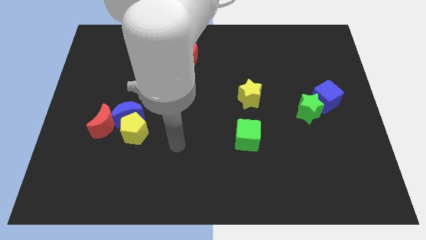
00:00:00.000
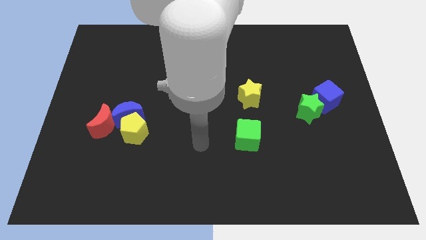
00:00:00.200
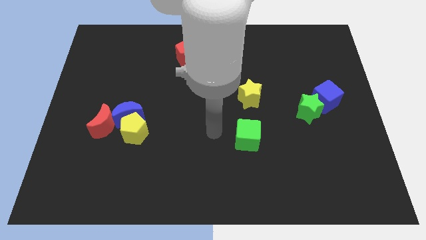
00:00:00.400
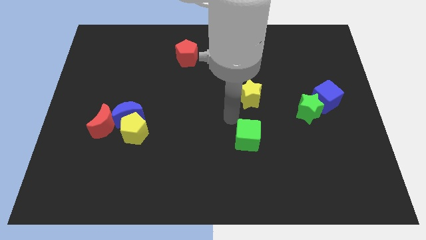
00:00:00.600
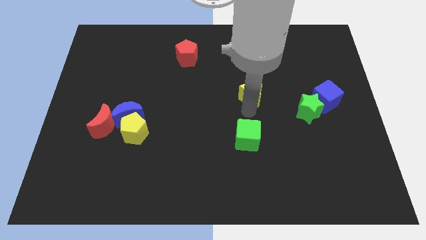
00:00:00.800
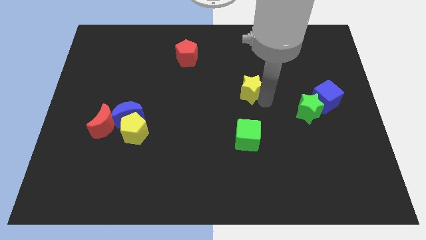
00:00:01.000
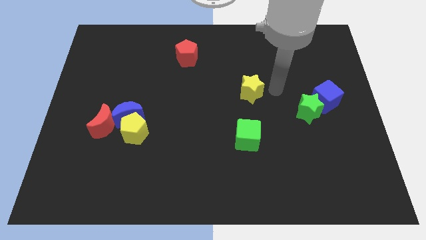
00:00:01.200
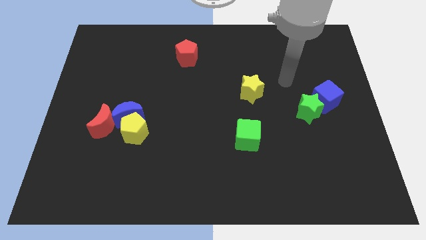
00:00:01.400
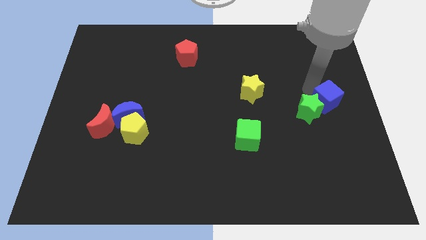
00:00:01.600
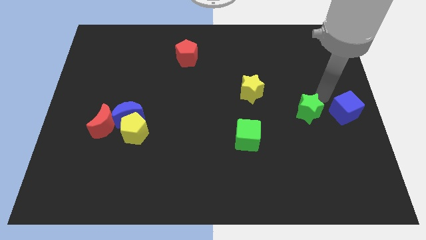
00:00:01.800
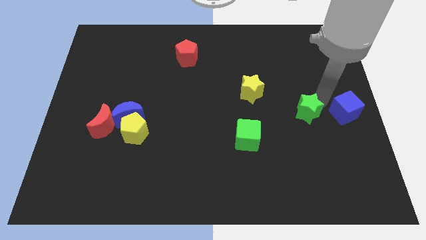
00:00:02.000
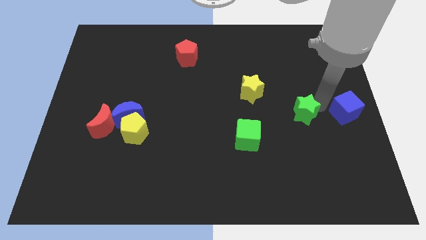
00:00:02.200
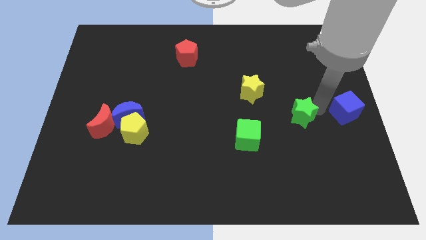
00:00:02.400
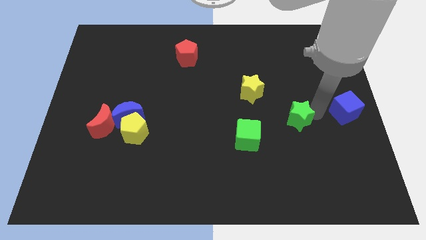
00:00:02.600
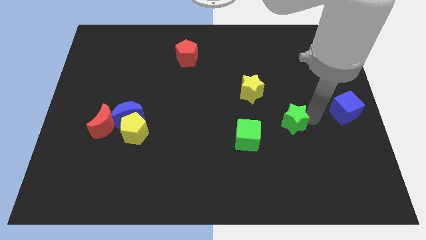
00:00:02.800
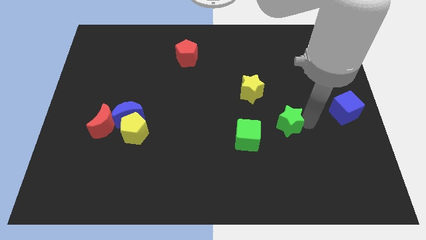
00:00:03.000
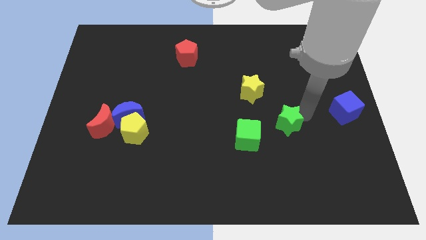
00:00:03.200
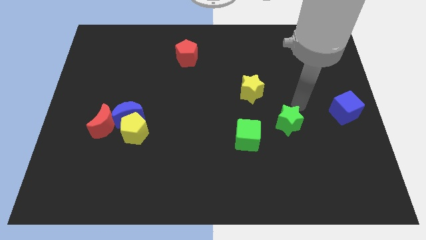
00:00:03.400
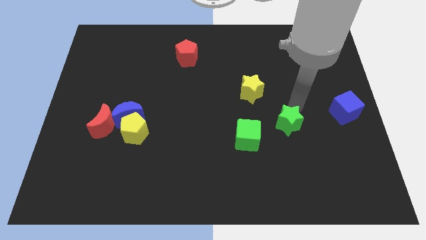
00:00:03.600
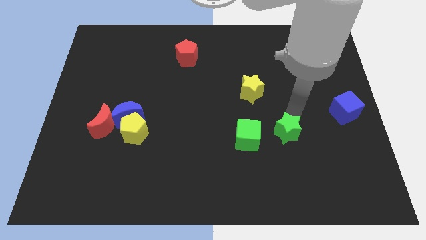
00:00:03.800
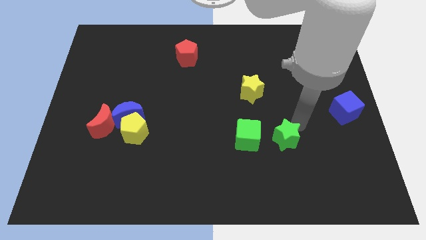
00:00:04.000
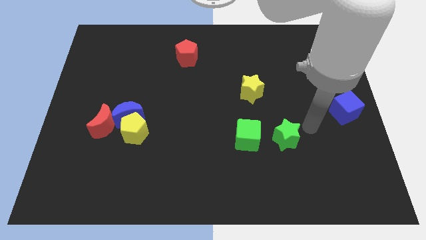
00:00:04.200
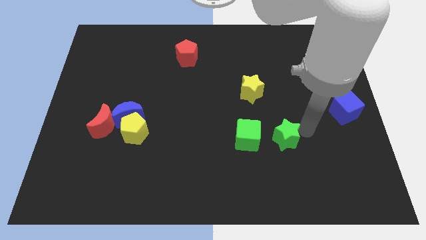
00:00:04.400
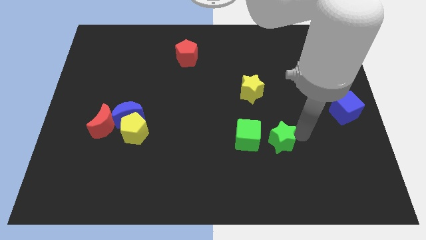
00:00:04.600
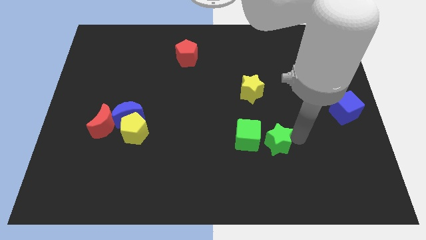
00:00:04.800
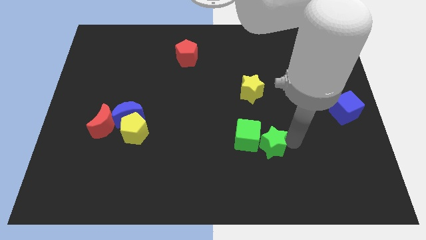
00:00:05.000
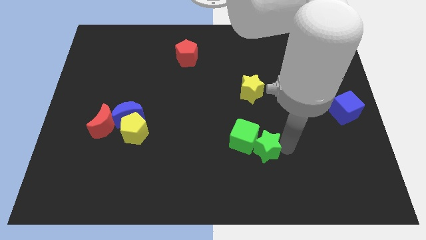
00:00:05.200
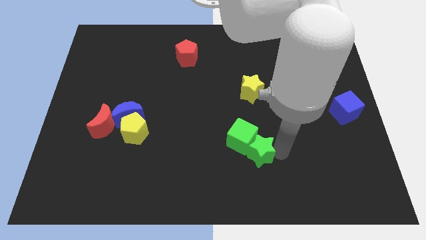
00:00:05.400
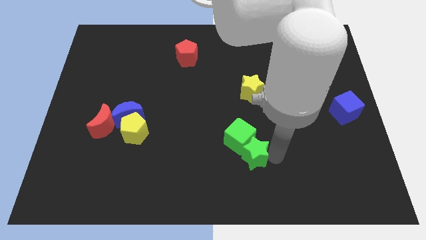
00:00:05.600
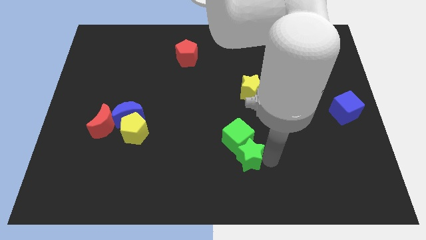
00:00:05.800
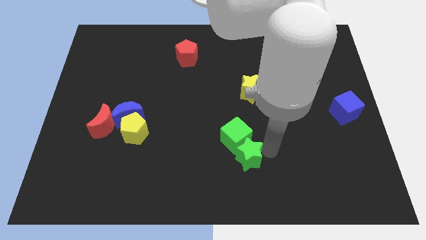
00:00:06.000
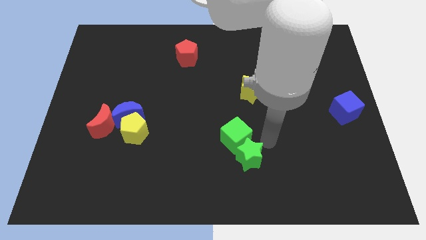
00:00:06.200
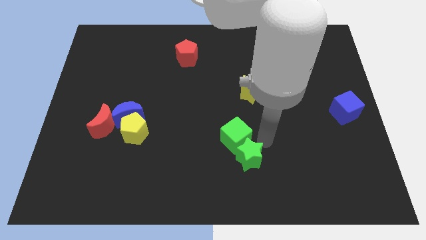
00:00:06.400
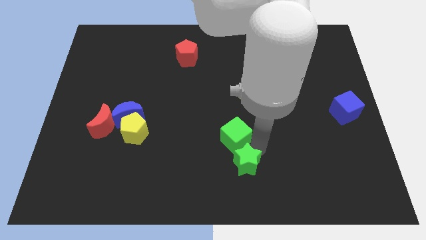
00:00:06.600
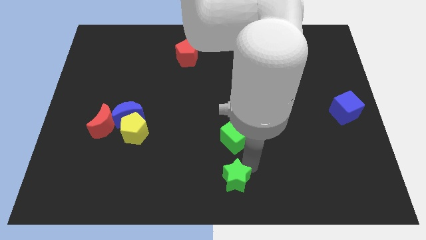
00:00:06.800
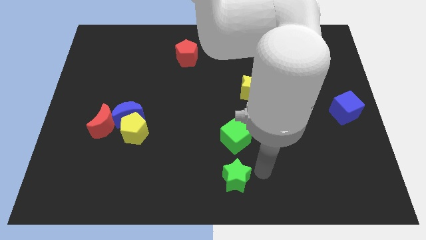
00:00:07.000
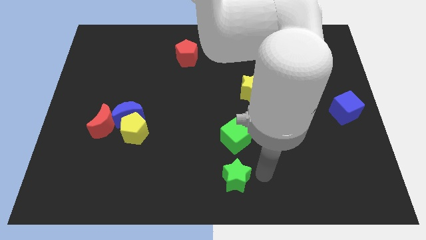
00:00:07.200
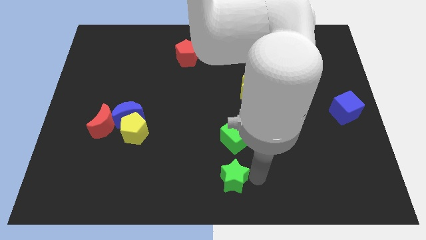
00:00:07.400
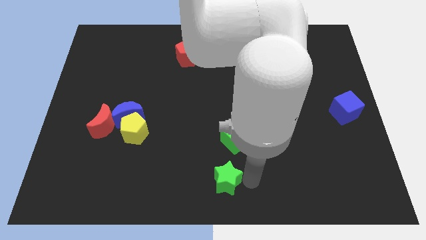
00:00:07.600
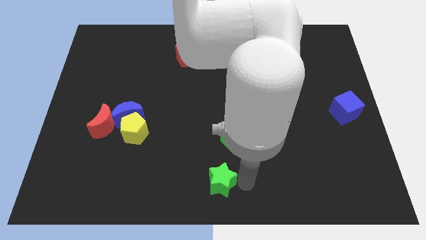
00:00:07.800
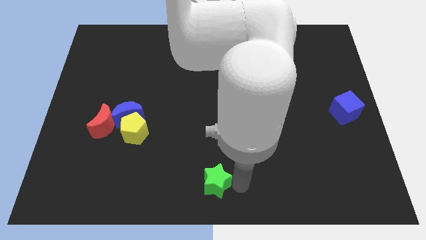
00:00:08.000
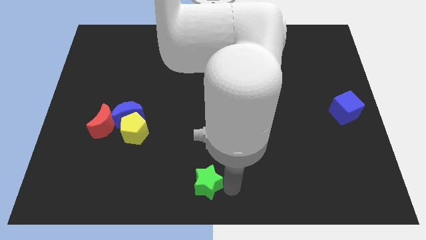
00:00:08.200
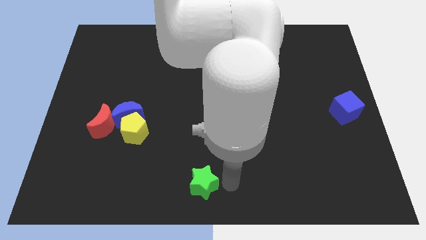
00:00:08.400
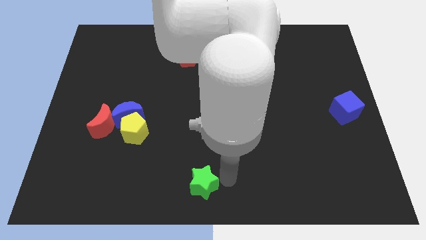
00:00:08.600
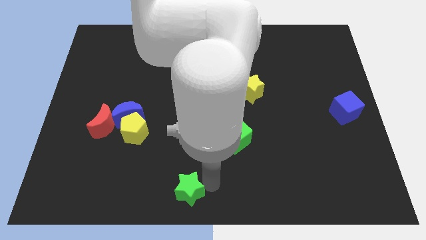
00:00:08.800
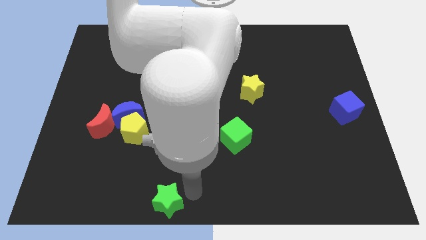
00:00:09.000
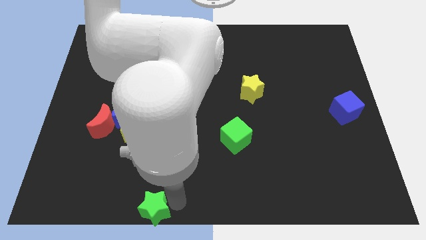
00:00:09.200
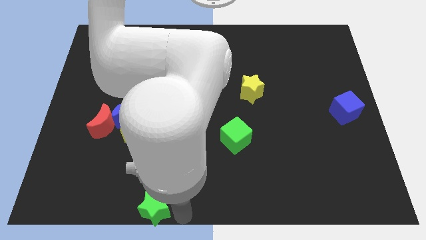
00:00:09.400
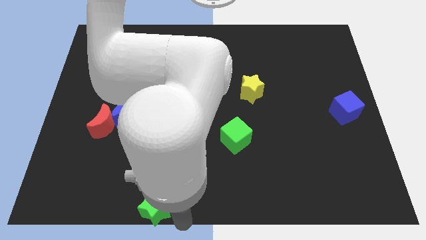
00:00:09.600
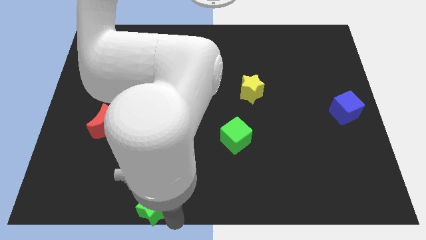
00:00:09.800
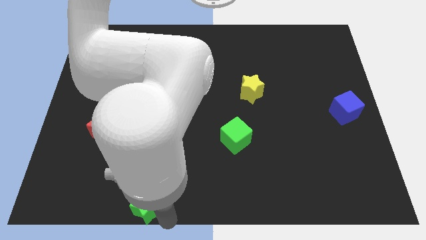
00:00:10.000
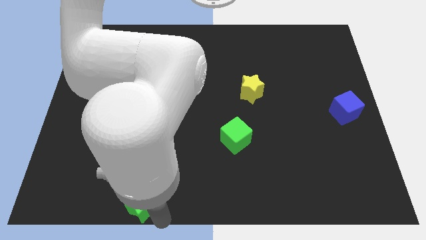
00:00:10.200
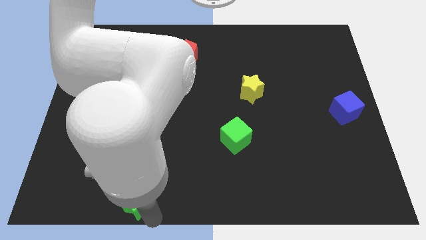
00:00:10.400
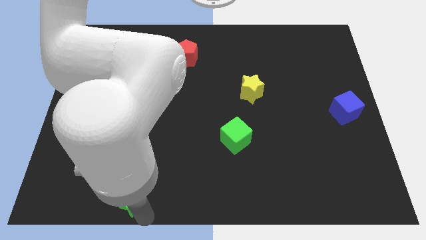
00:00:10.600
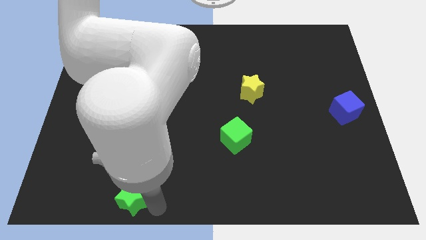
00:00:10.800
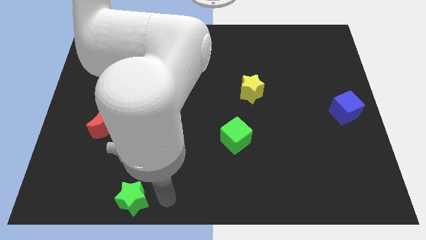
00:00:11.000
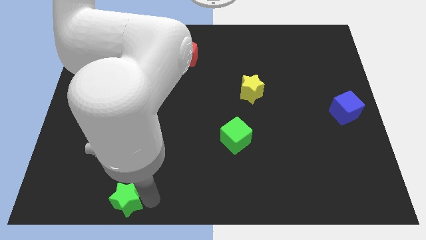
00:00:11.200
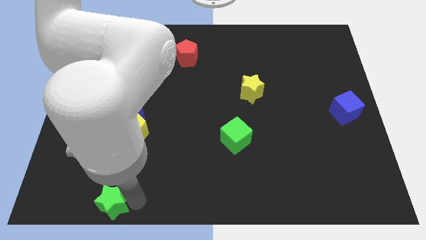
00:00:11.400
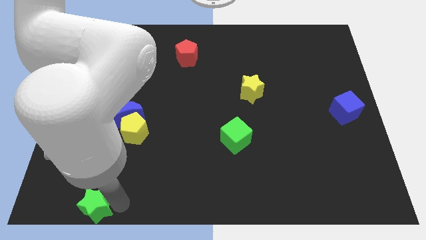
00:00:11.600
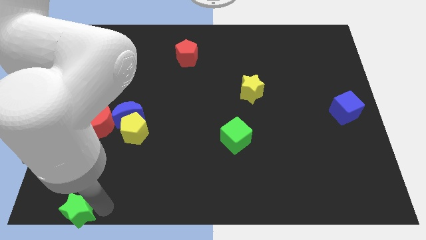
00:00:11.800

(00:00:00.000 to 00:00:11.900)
put the green star to the lower left corner

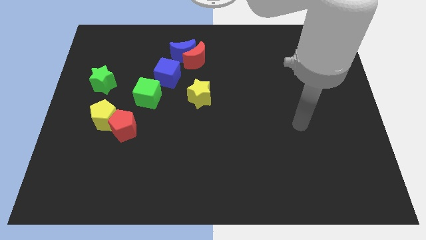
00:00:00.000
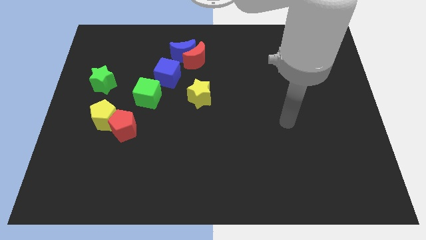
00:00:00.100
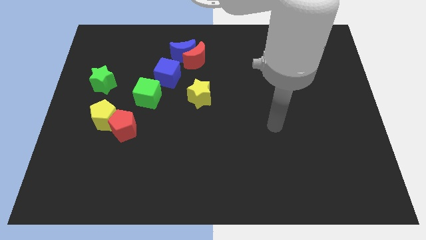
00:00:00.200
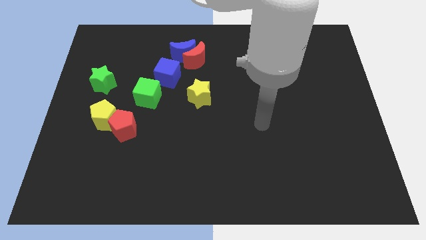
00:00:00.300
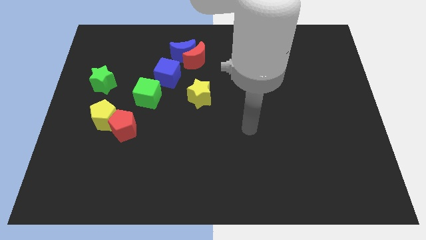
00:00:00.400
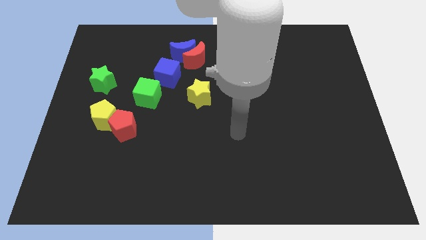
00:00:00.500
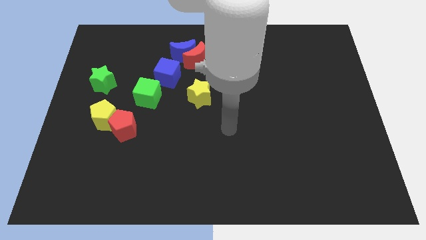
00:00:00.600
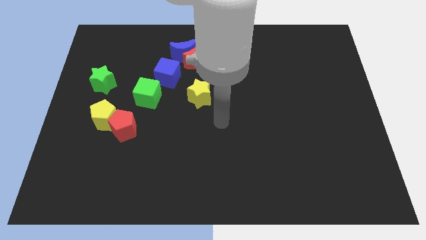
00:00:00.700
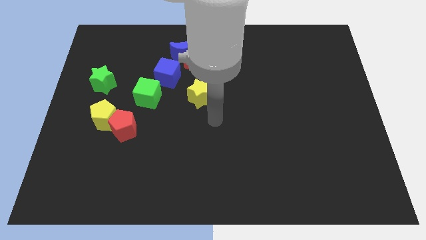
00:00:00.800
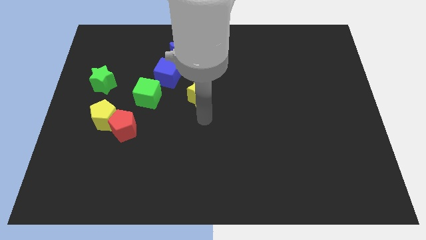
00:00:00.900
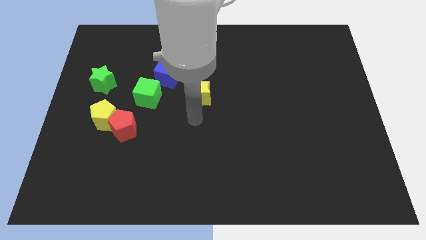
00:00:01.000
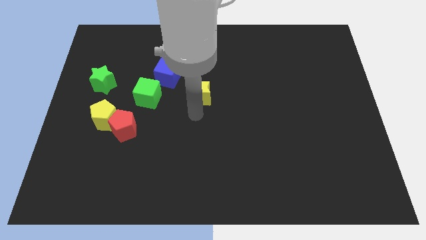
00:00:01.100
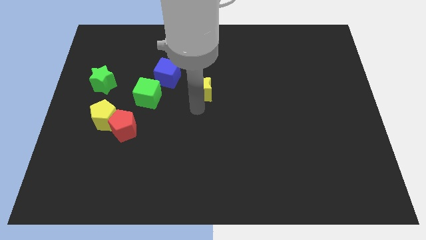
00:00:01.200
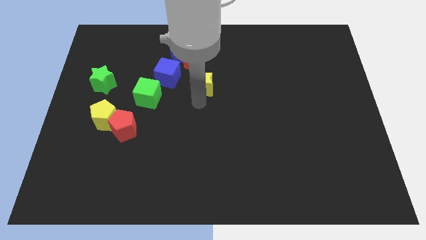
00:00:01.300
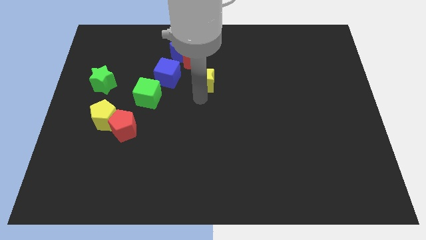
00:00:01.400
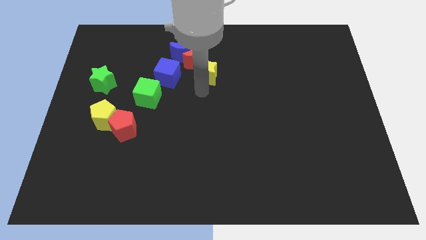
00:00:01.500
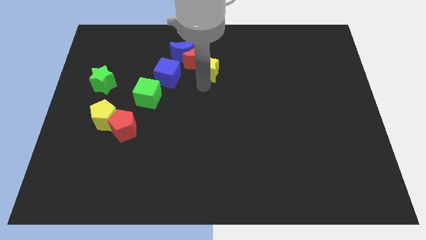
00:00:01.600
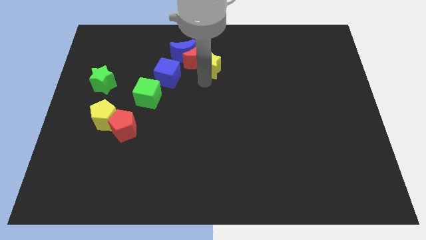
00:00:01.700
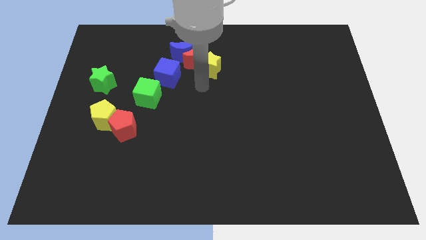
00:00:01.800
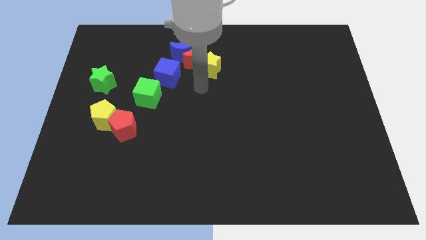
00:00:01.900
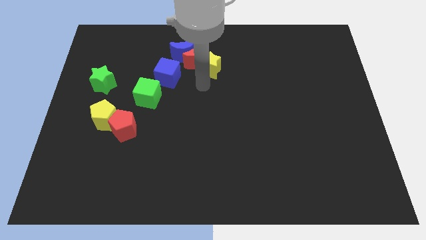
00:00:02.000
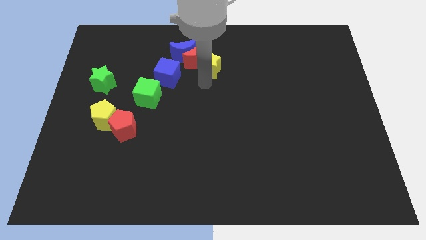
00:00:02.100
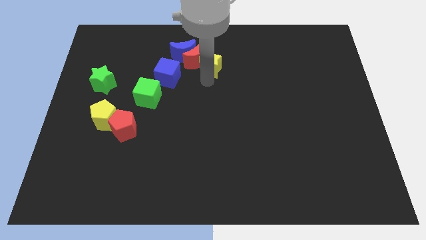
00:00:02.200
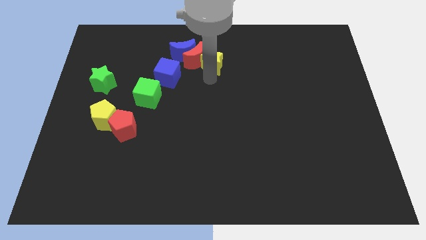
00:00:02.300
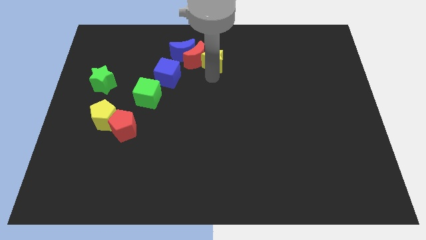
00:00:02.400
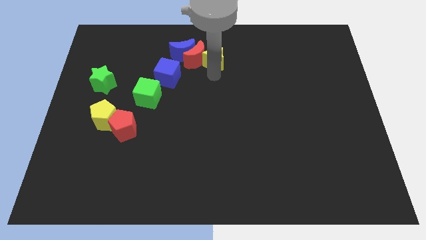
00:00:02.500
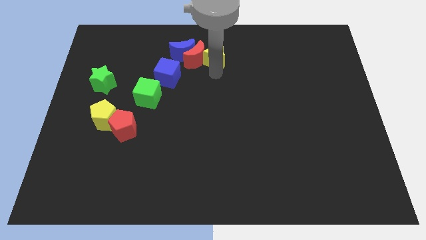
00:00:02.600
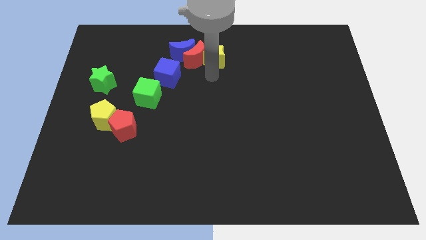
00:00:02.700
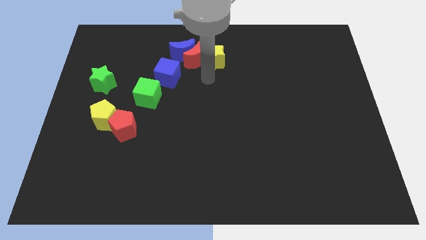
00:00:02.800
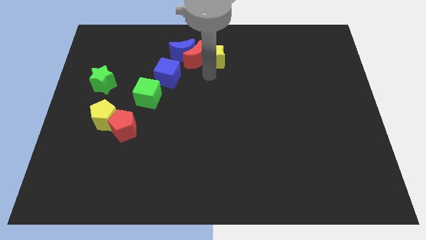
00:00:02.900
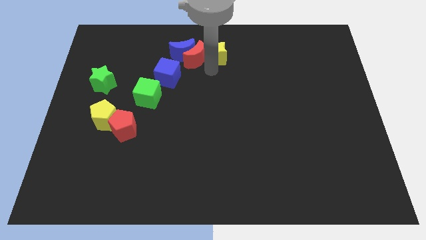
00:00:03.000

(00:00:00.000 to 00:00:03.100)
slide the yellow star to the top
